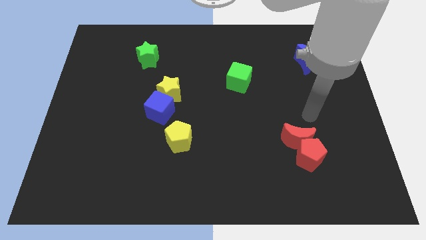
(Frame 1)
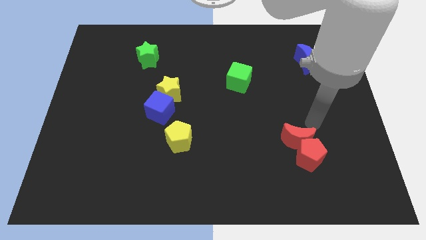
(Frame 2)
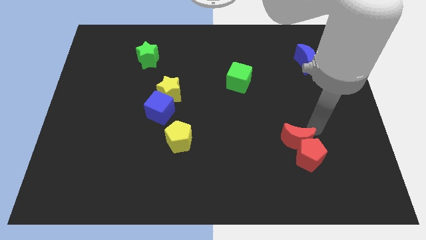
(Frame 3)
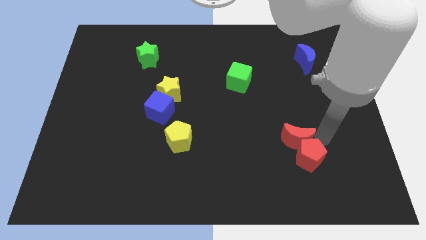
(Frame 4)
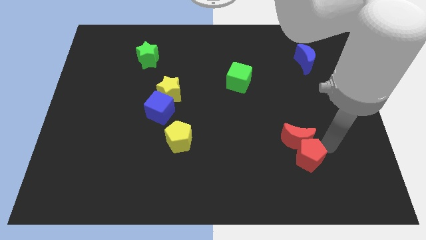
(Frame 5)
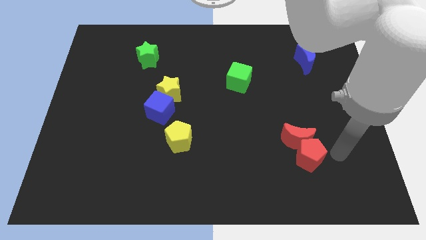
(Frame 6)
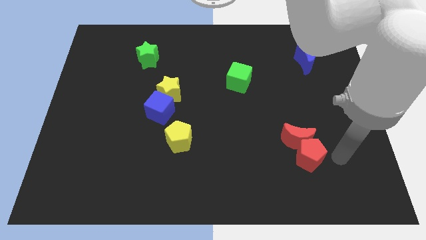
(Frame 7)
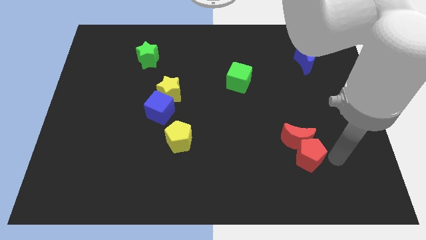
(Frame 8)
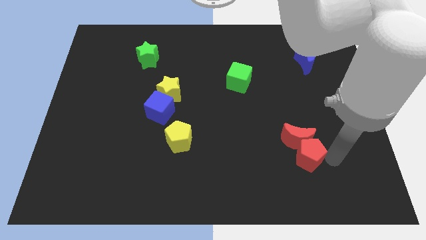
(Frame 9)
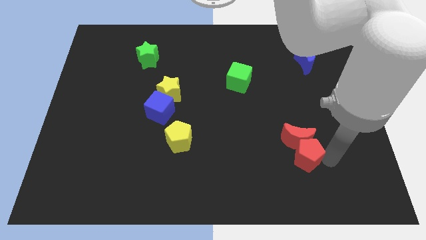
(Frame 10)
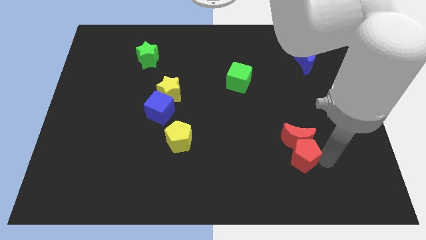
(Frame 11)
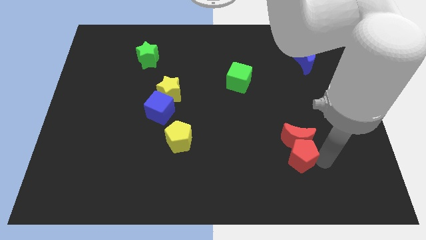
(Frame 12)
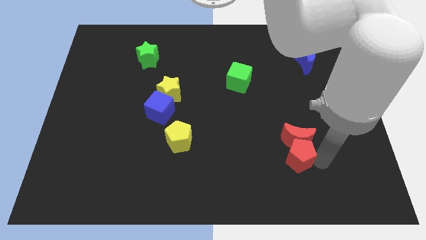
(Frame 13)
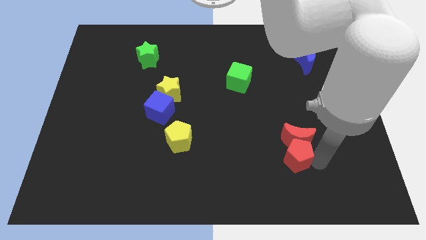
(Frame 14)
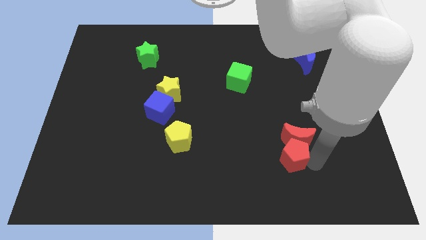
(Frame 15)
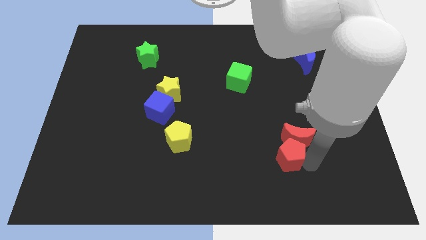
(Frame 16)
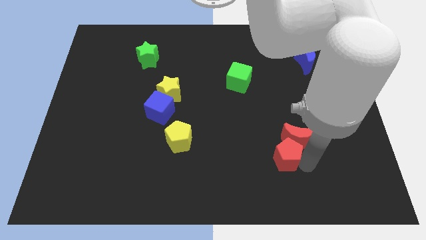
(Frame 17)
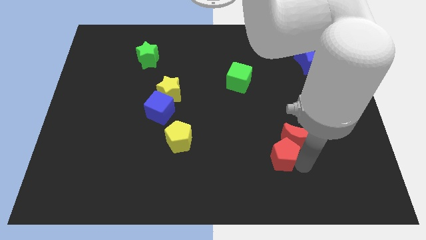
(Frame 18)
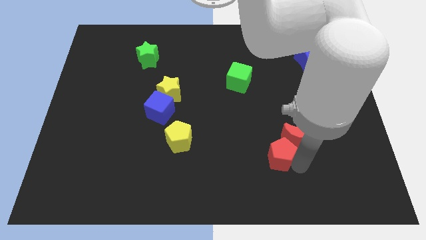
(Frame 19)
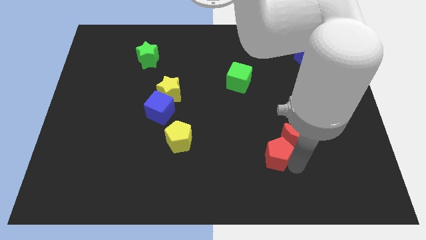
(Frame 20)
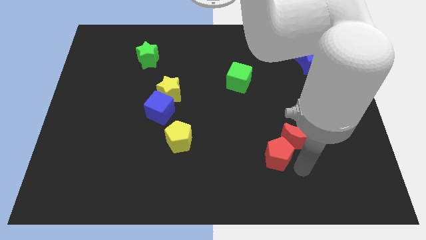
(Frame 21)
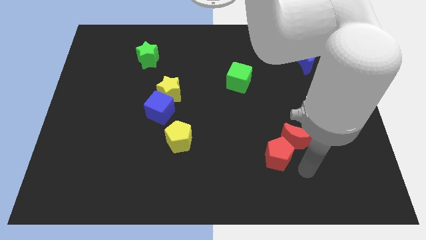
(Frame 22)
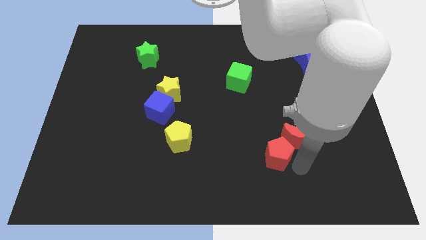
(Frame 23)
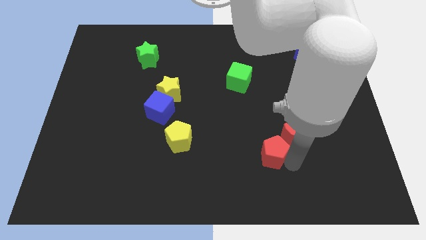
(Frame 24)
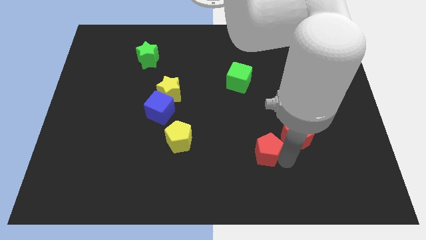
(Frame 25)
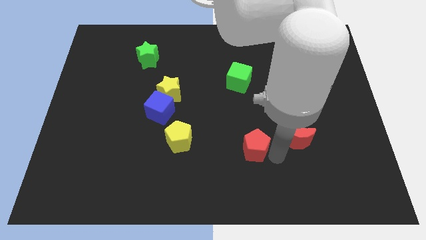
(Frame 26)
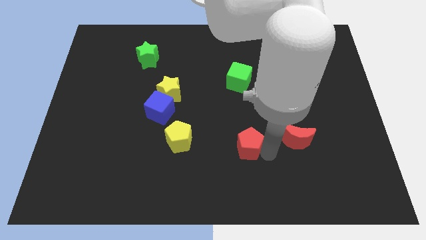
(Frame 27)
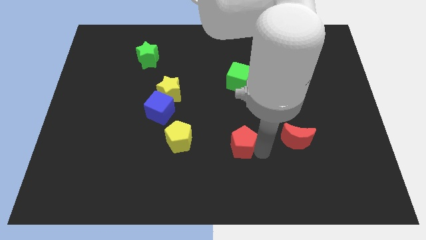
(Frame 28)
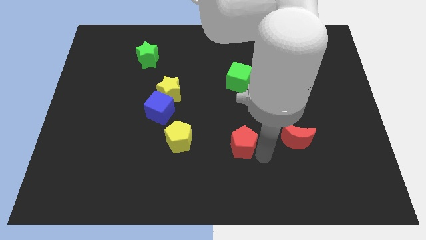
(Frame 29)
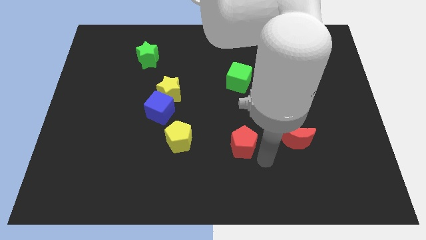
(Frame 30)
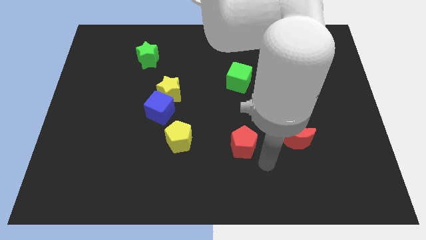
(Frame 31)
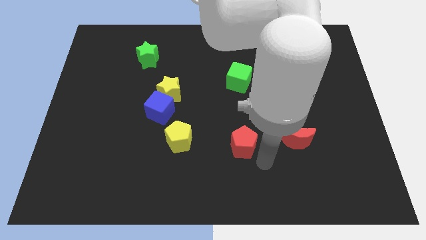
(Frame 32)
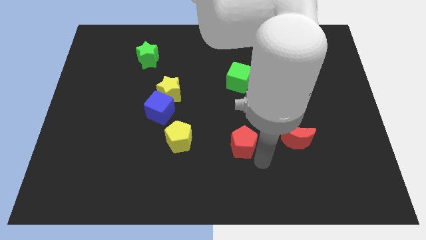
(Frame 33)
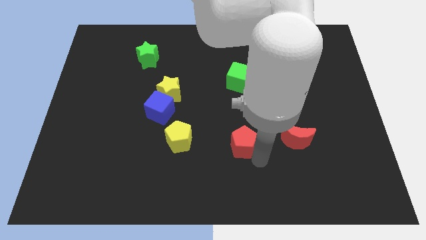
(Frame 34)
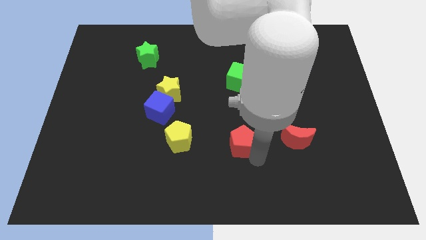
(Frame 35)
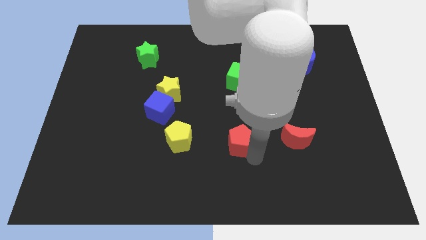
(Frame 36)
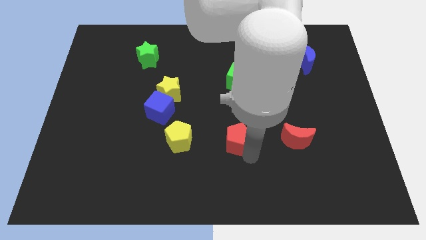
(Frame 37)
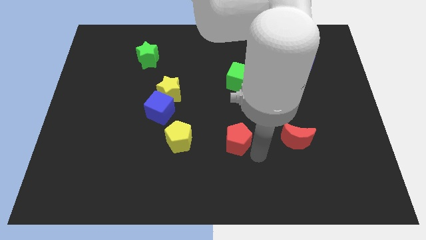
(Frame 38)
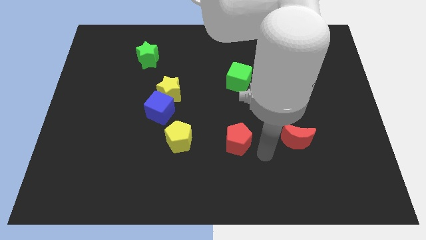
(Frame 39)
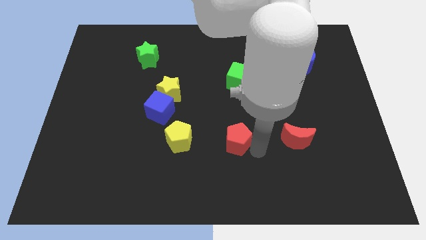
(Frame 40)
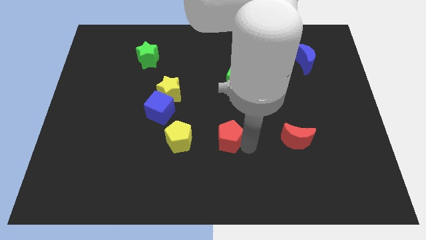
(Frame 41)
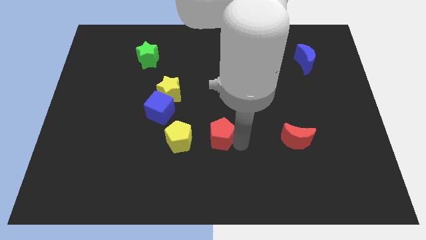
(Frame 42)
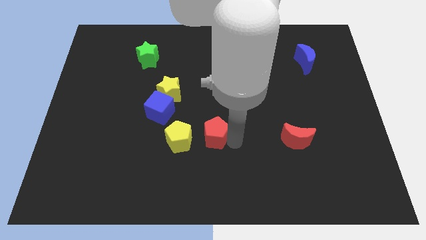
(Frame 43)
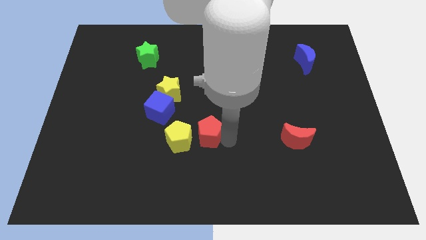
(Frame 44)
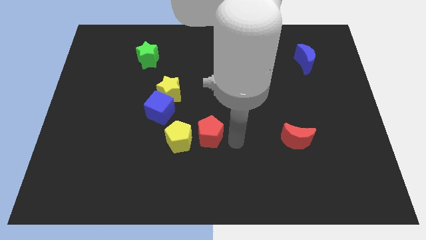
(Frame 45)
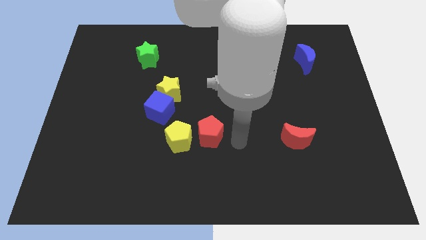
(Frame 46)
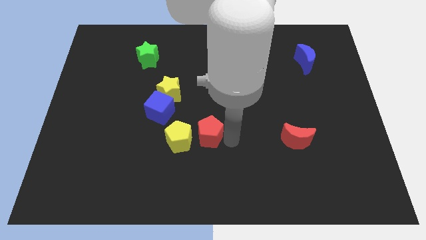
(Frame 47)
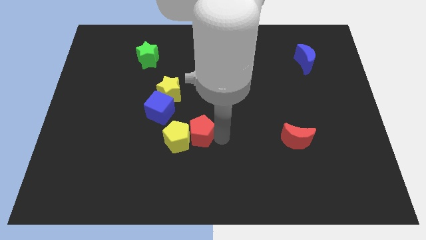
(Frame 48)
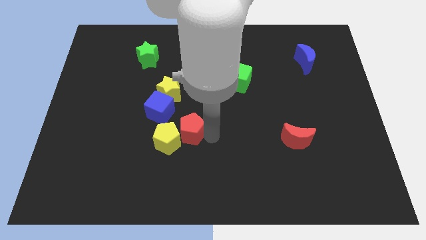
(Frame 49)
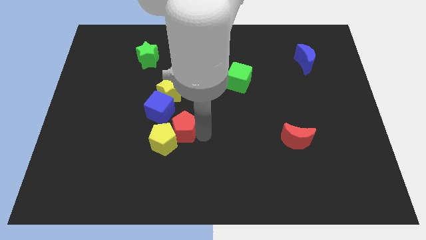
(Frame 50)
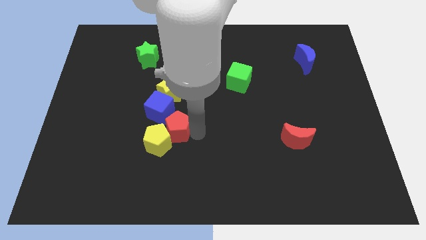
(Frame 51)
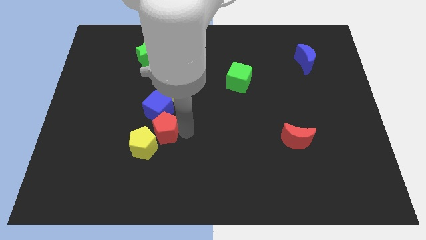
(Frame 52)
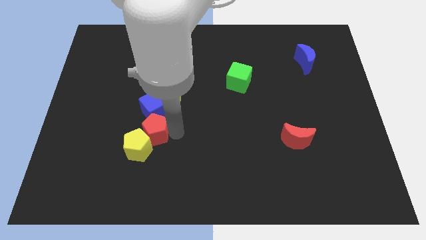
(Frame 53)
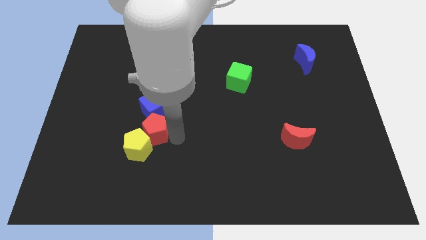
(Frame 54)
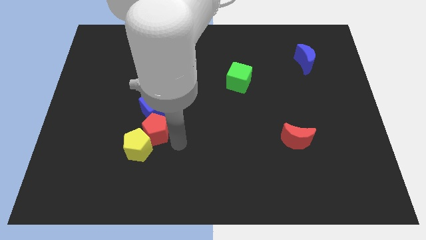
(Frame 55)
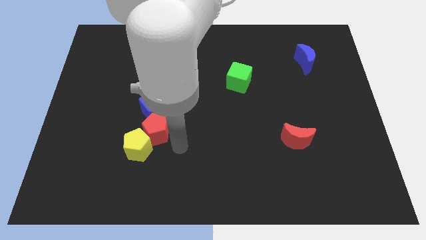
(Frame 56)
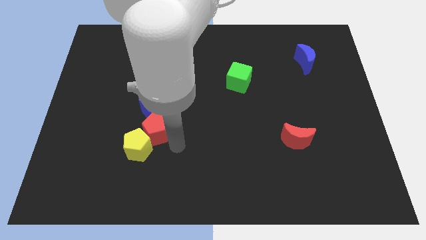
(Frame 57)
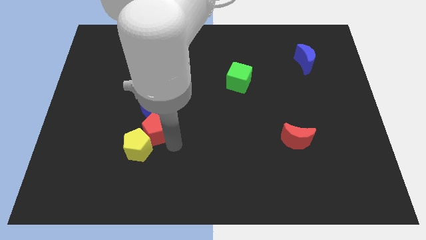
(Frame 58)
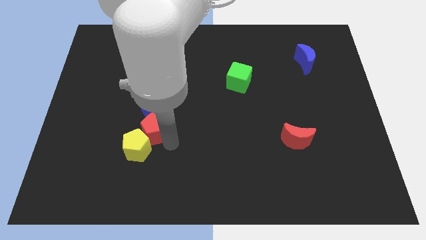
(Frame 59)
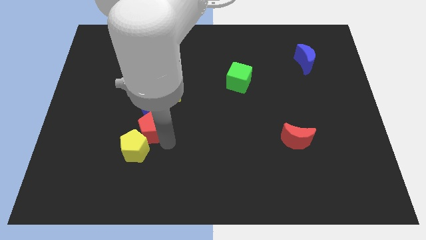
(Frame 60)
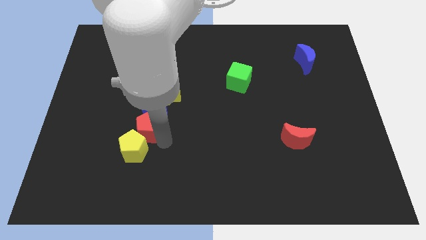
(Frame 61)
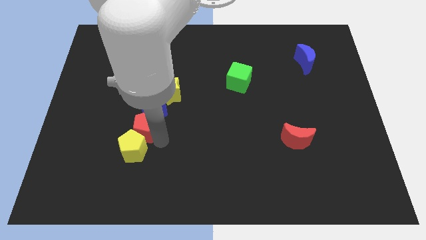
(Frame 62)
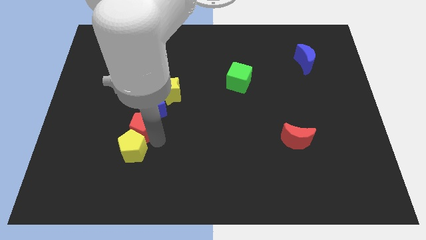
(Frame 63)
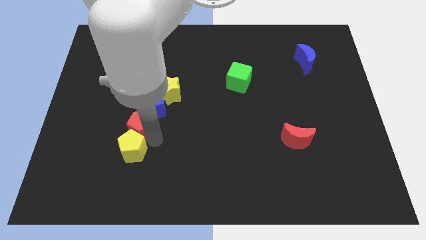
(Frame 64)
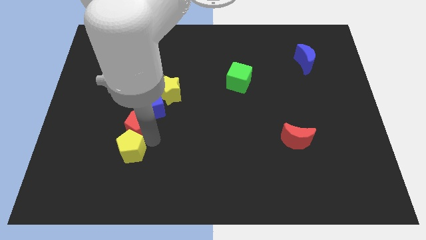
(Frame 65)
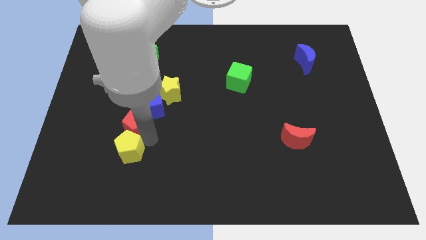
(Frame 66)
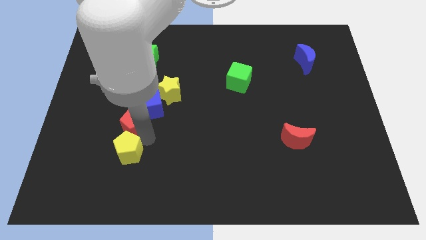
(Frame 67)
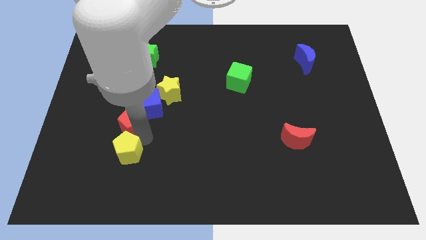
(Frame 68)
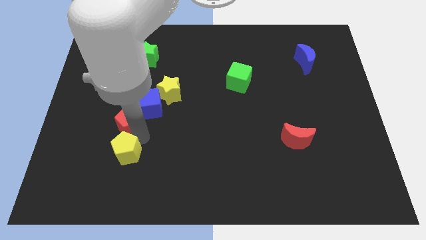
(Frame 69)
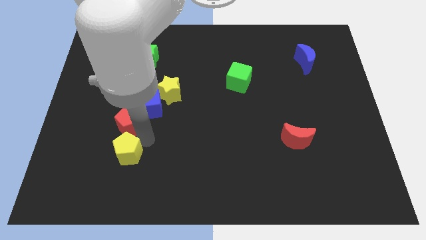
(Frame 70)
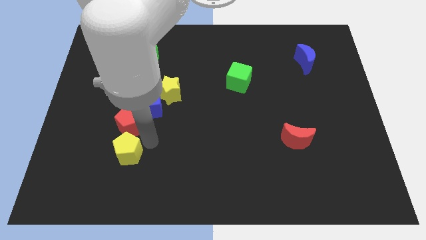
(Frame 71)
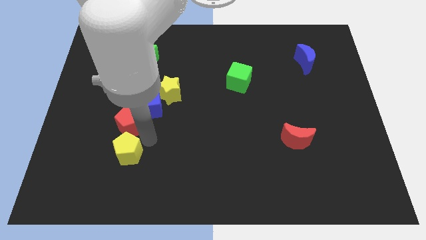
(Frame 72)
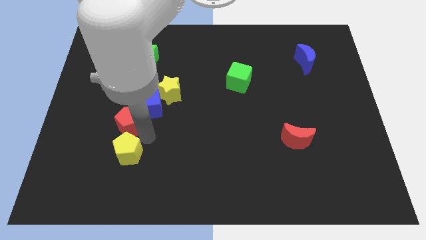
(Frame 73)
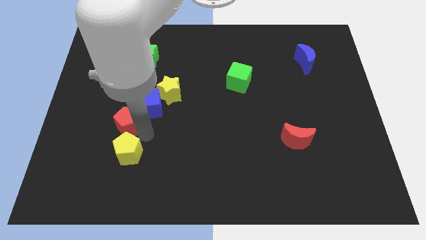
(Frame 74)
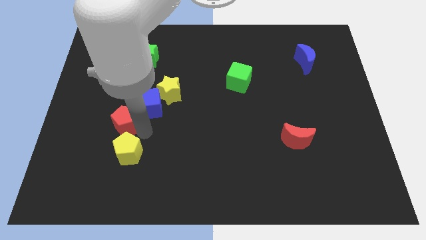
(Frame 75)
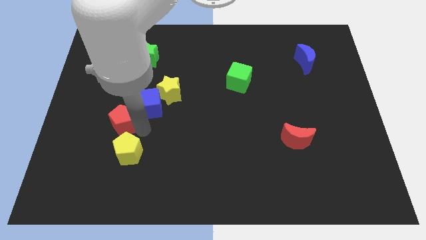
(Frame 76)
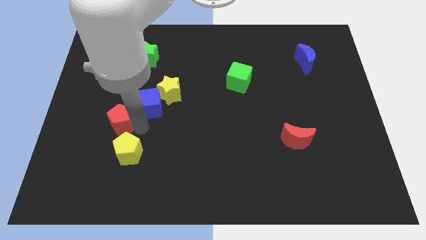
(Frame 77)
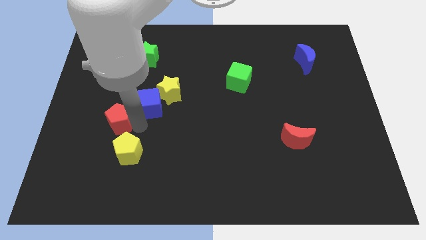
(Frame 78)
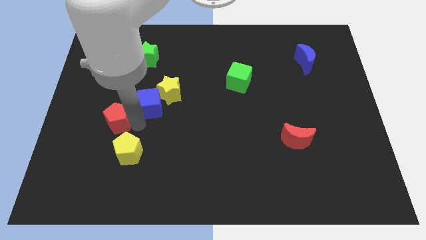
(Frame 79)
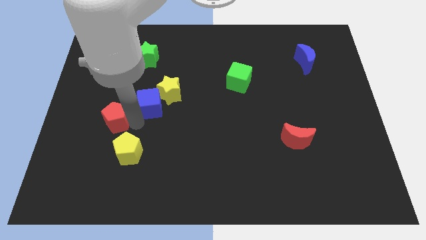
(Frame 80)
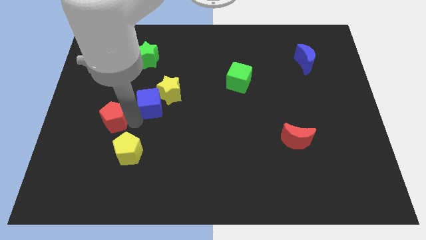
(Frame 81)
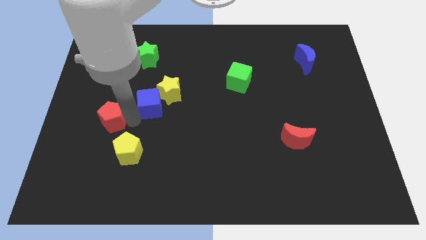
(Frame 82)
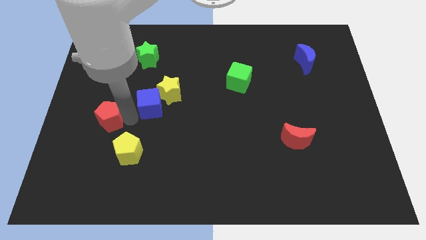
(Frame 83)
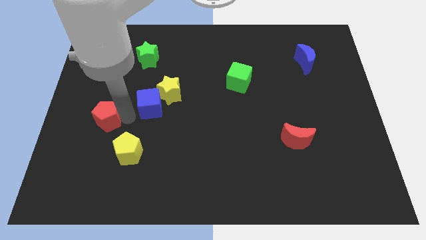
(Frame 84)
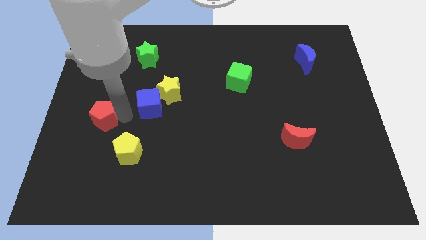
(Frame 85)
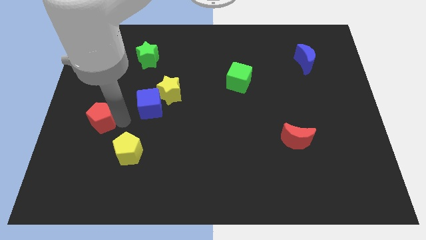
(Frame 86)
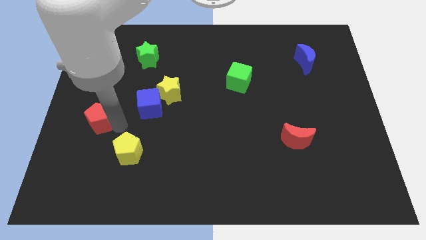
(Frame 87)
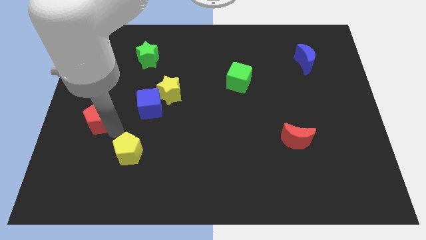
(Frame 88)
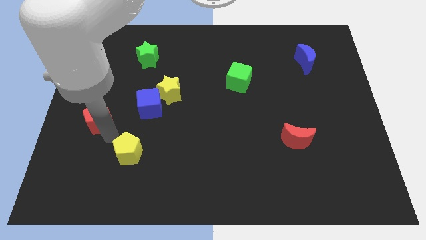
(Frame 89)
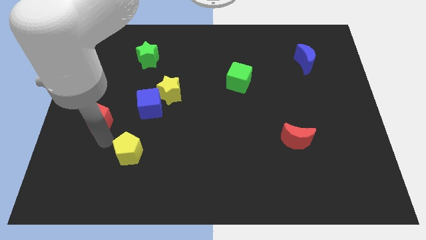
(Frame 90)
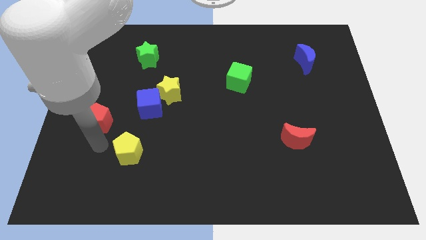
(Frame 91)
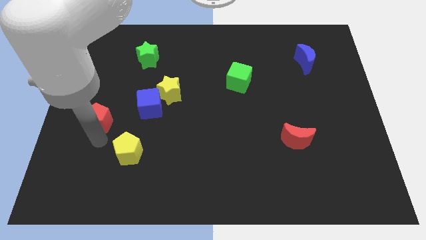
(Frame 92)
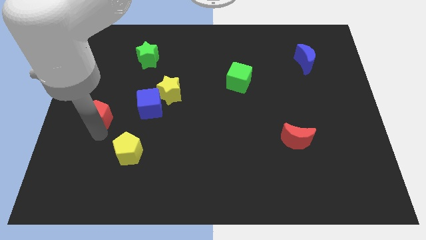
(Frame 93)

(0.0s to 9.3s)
move the red pentagon to the left side of the board
